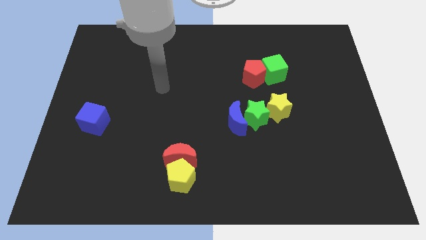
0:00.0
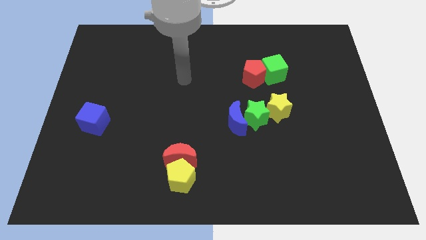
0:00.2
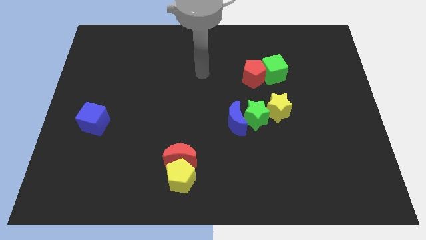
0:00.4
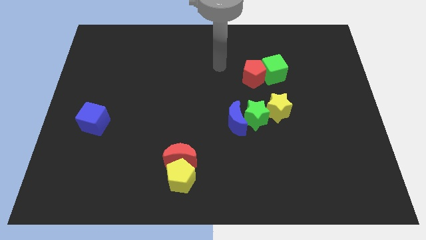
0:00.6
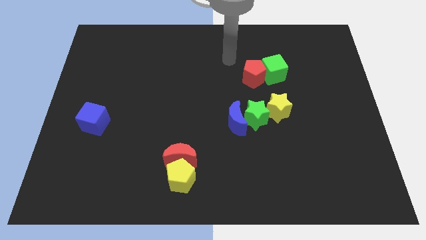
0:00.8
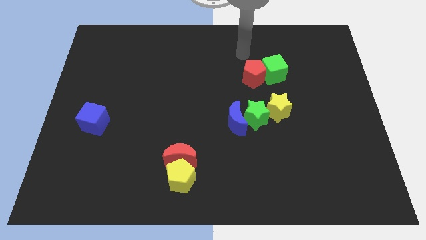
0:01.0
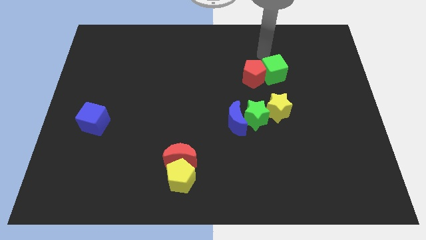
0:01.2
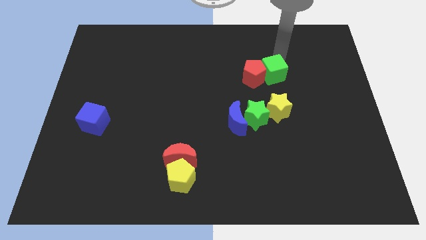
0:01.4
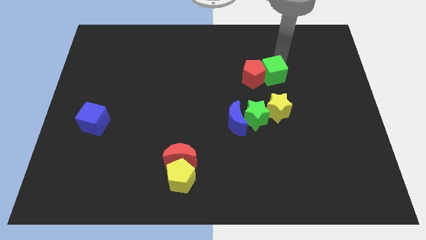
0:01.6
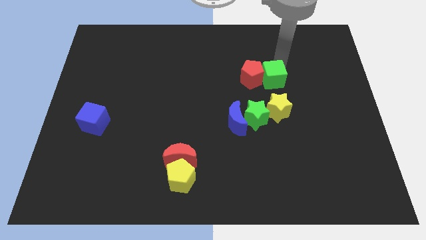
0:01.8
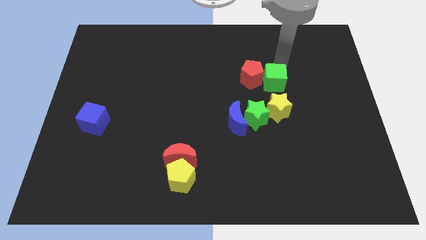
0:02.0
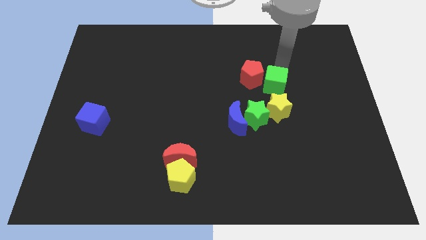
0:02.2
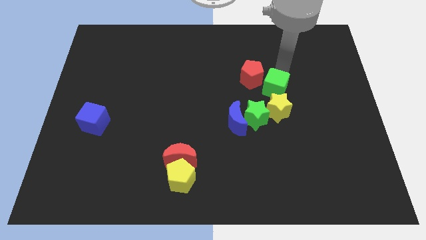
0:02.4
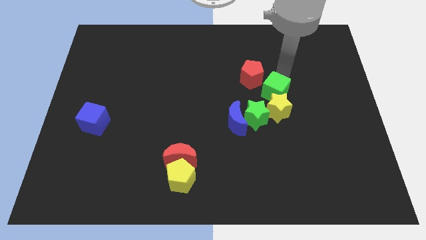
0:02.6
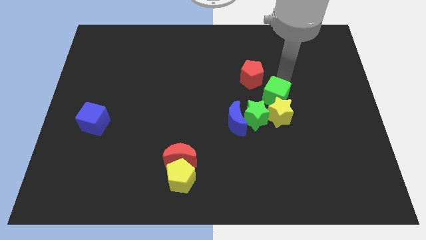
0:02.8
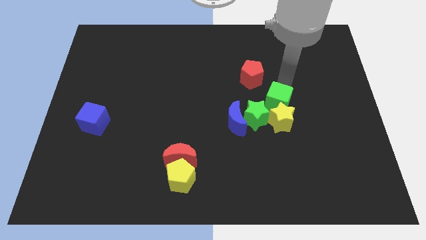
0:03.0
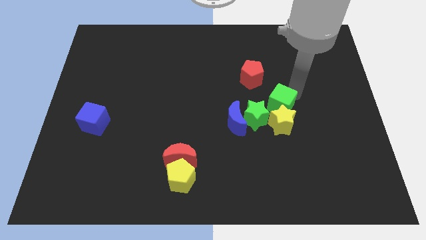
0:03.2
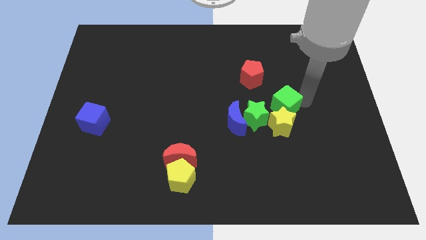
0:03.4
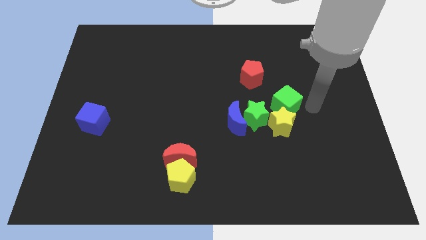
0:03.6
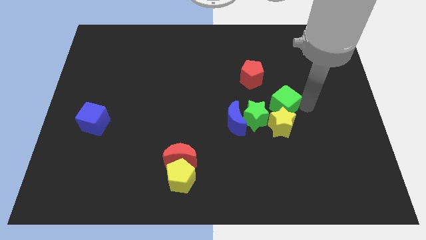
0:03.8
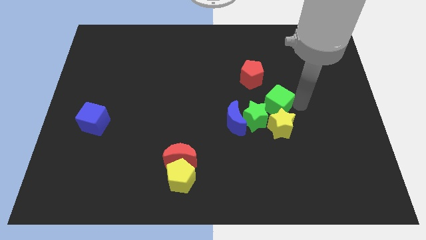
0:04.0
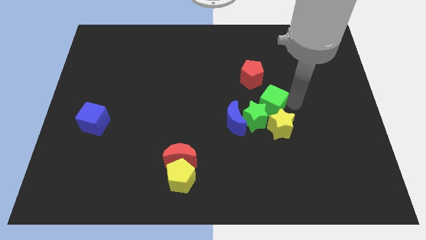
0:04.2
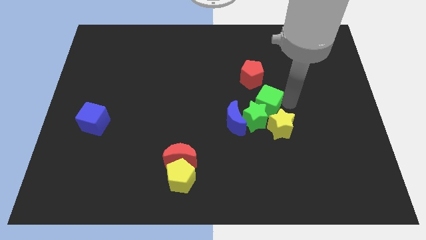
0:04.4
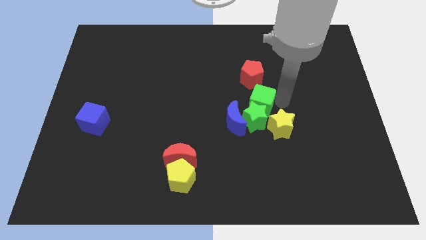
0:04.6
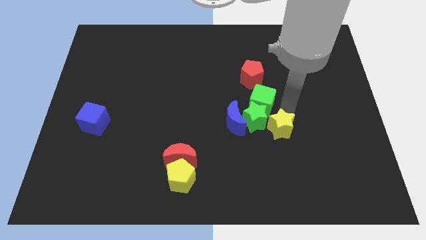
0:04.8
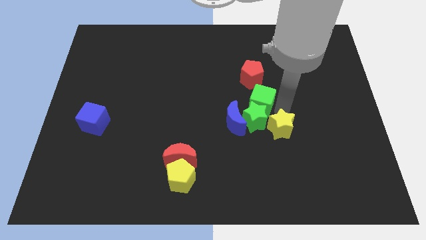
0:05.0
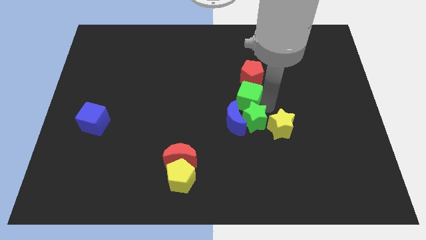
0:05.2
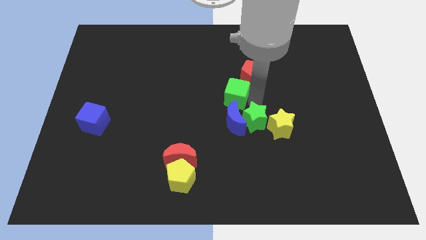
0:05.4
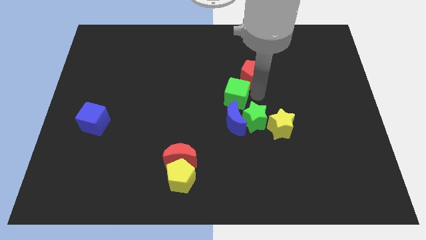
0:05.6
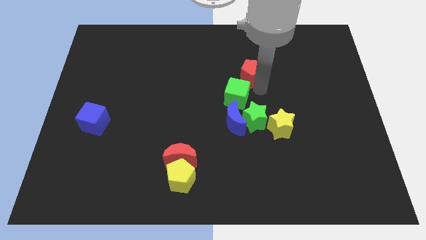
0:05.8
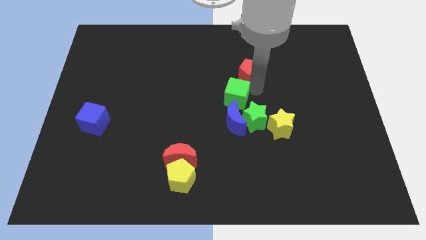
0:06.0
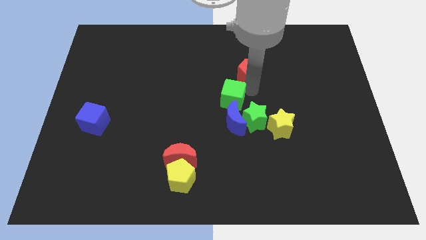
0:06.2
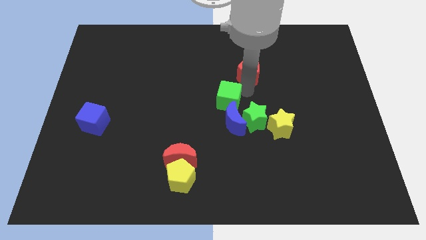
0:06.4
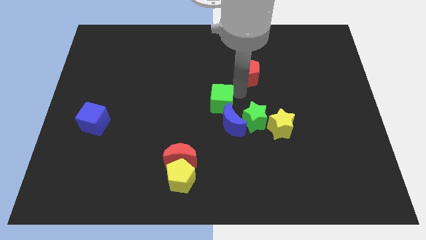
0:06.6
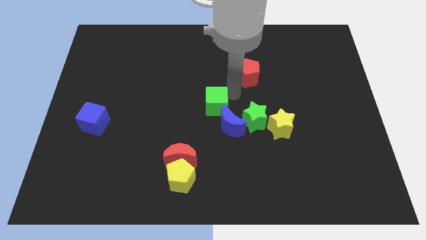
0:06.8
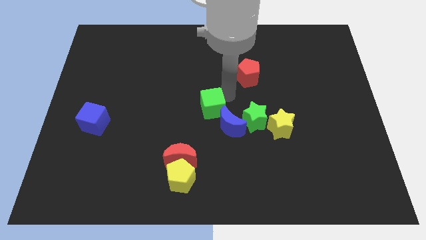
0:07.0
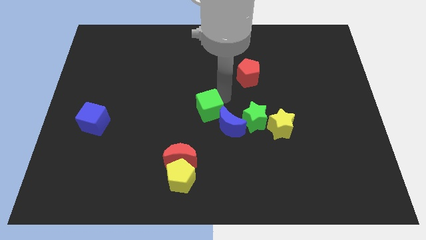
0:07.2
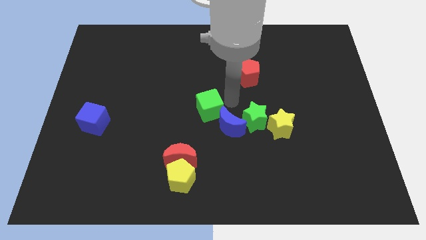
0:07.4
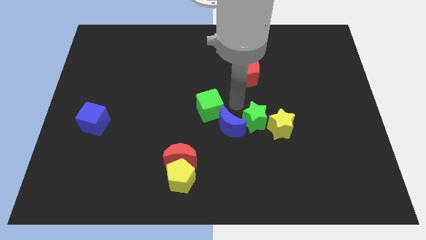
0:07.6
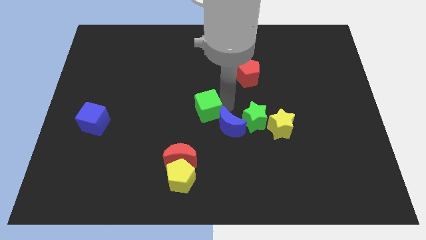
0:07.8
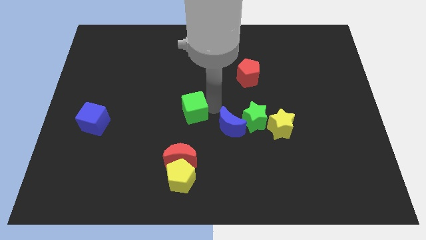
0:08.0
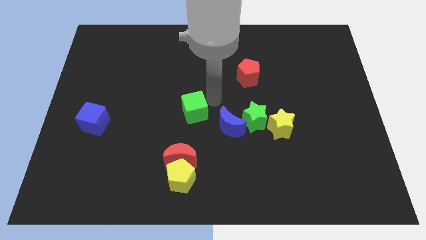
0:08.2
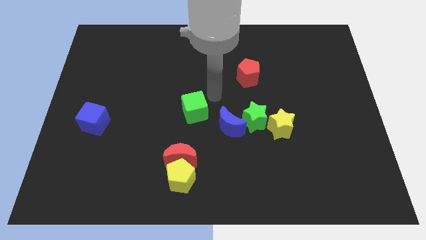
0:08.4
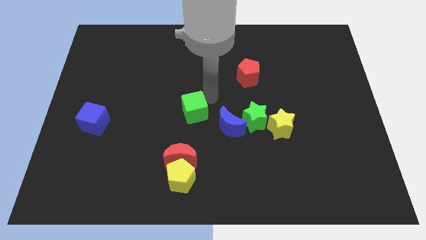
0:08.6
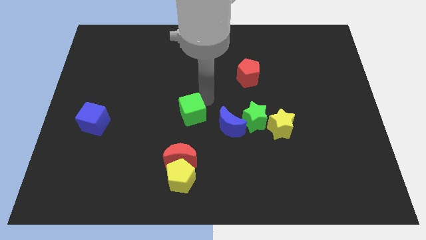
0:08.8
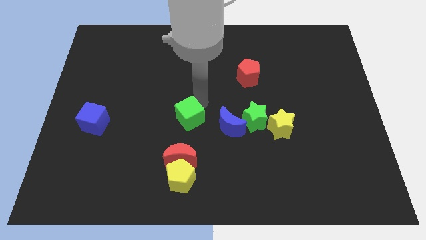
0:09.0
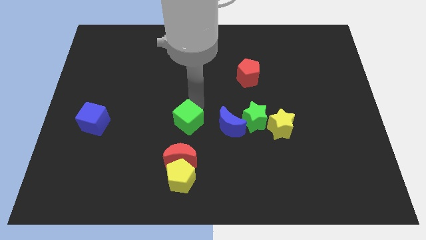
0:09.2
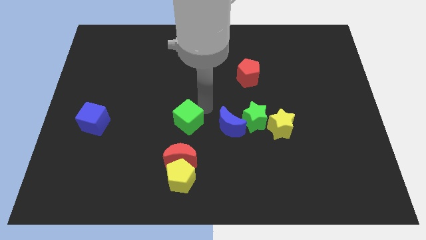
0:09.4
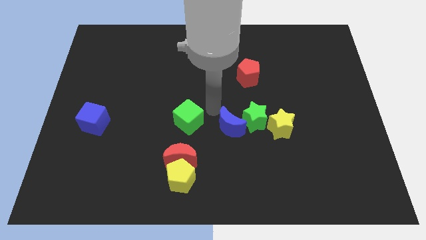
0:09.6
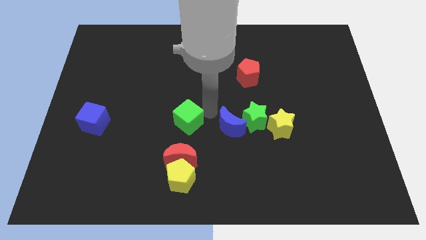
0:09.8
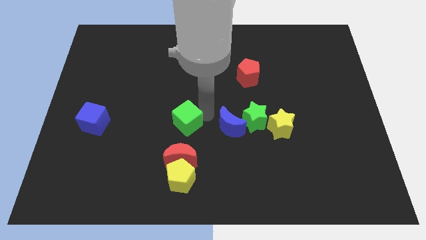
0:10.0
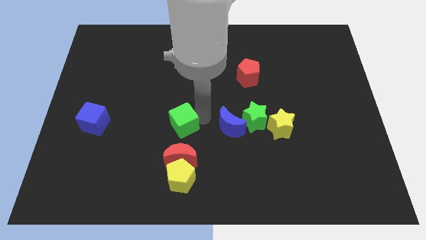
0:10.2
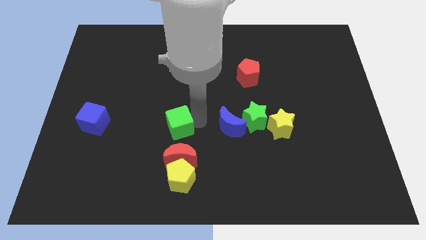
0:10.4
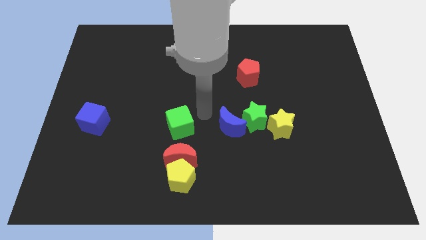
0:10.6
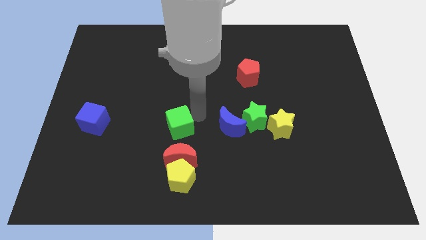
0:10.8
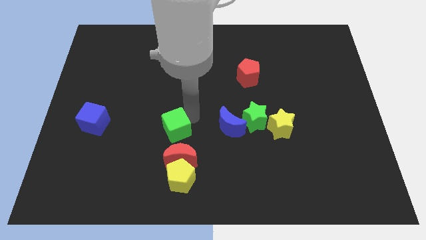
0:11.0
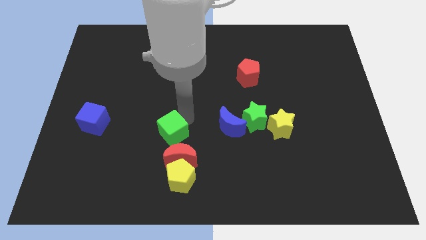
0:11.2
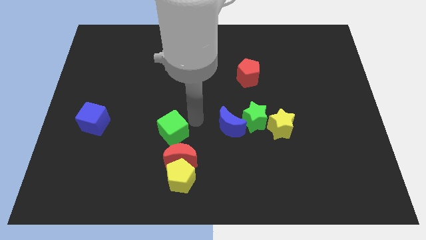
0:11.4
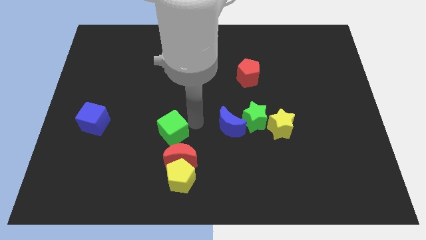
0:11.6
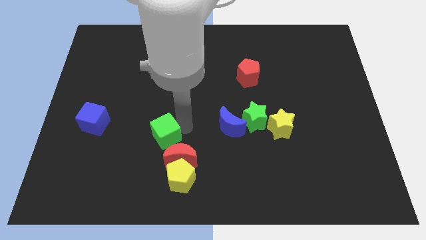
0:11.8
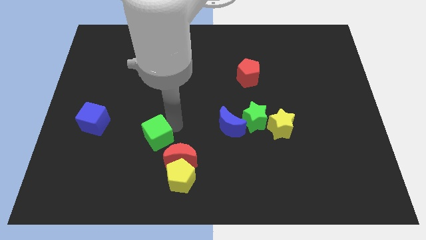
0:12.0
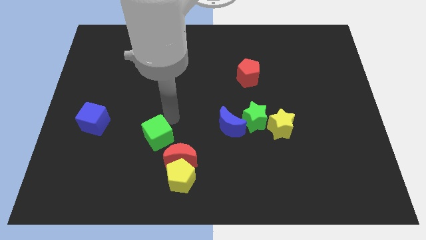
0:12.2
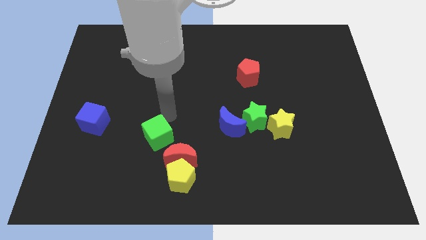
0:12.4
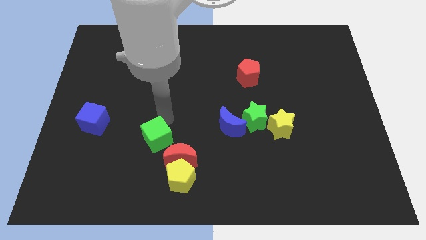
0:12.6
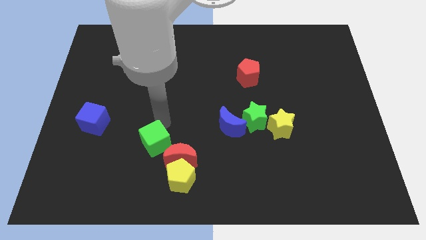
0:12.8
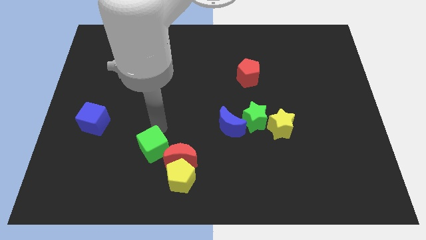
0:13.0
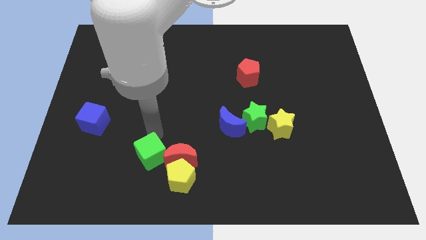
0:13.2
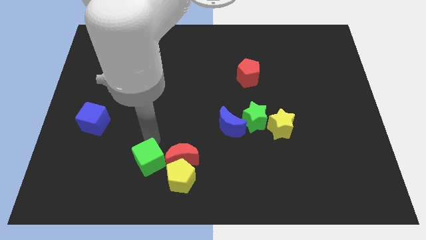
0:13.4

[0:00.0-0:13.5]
slide the green cube just left of the yellow pentagon

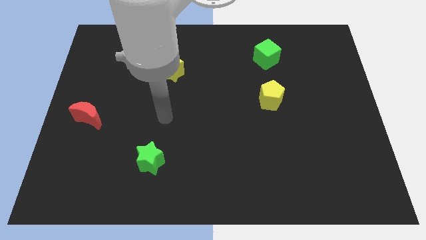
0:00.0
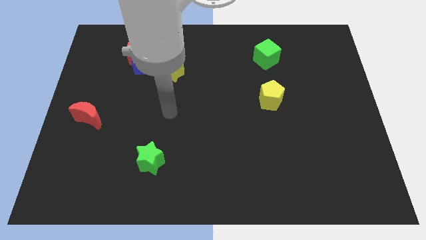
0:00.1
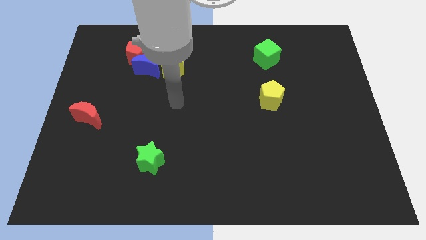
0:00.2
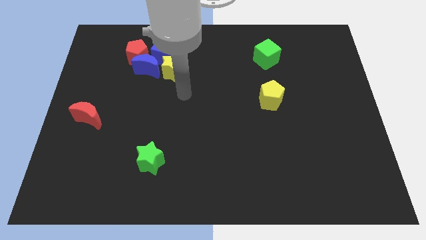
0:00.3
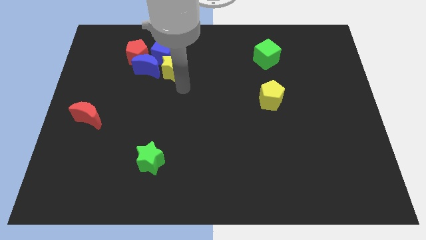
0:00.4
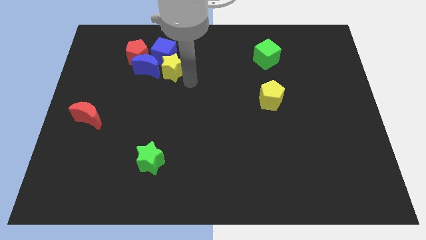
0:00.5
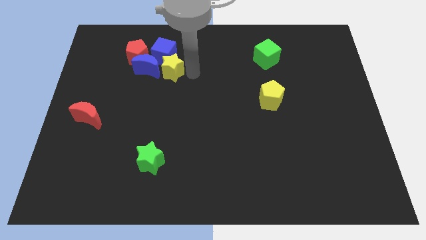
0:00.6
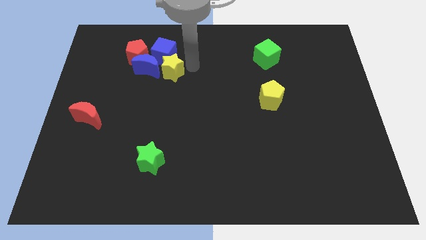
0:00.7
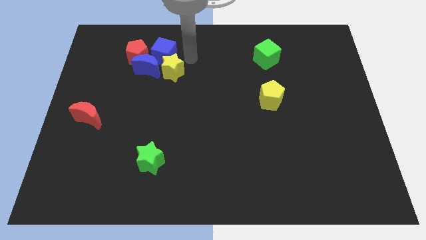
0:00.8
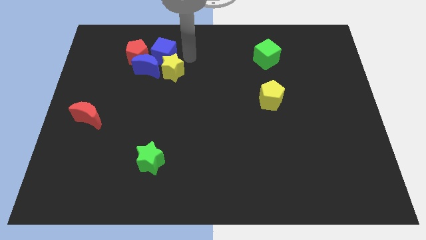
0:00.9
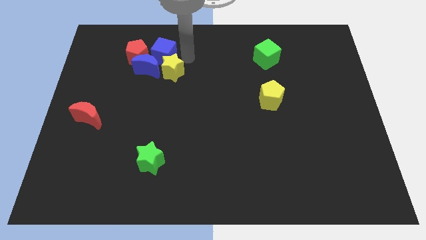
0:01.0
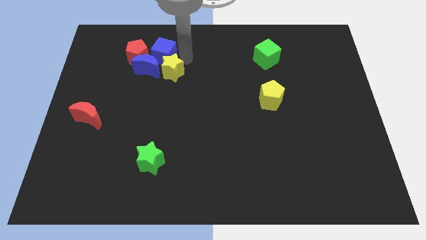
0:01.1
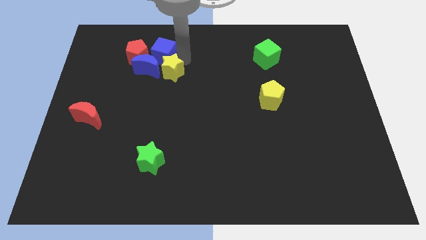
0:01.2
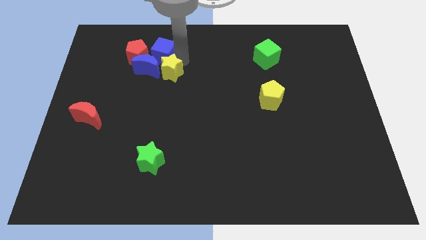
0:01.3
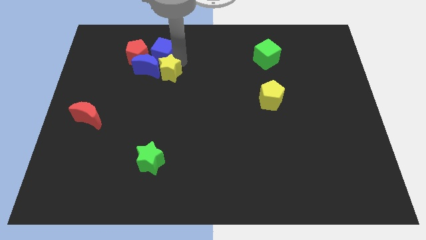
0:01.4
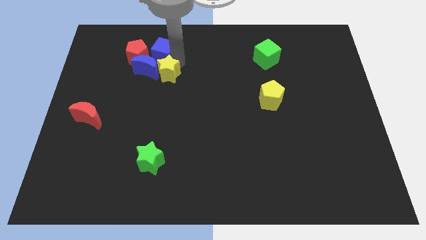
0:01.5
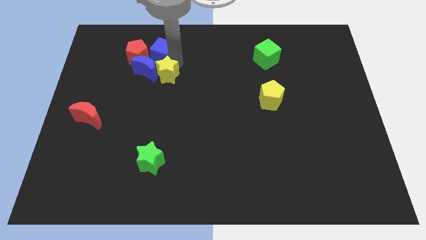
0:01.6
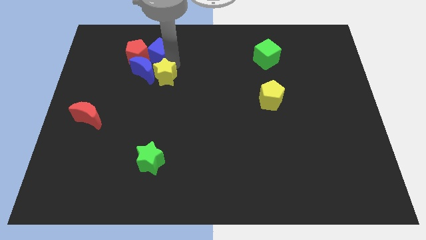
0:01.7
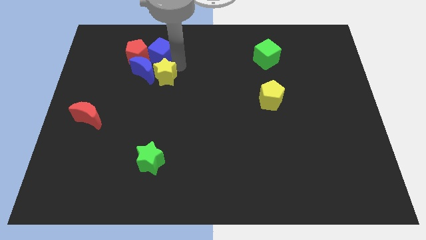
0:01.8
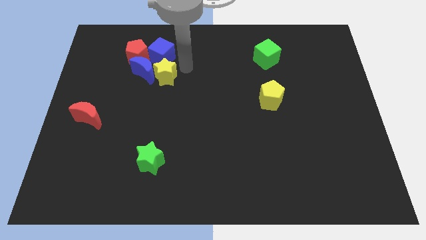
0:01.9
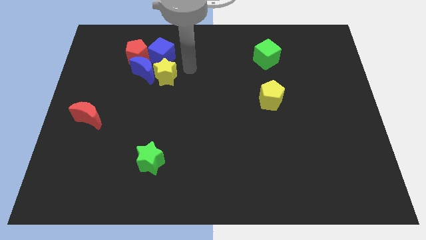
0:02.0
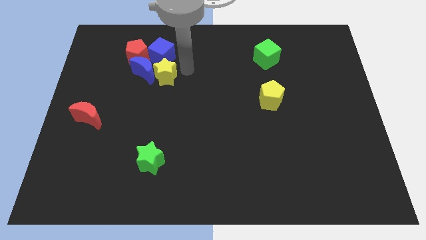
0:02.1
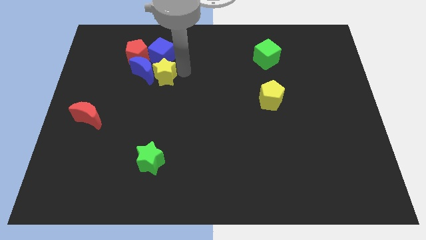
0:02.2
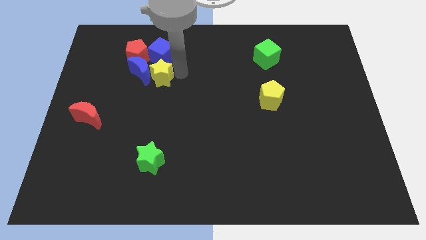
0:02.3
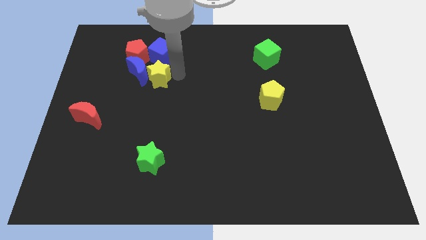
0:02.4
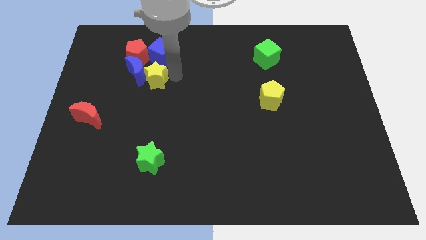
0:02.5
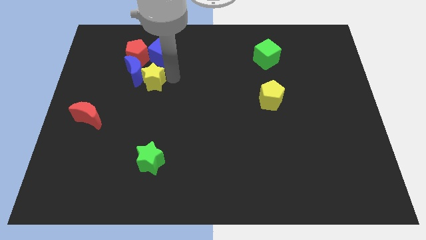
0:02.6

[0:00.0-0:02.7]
move the yellow star to the bottom side of the red pentagon
